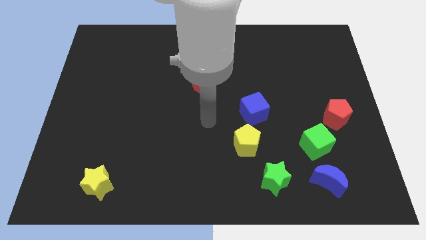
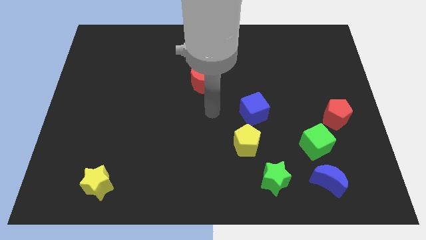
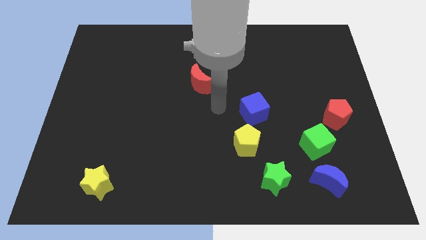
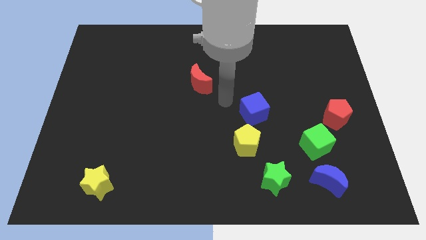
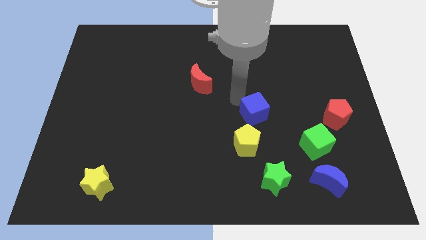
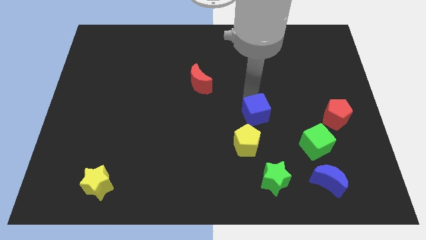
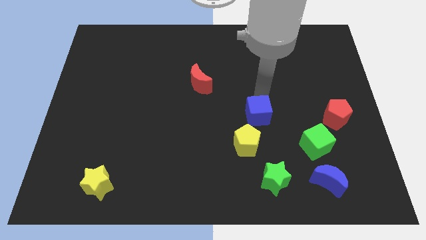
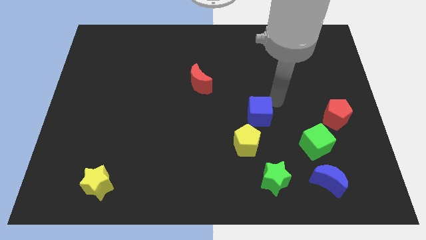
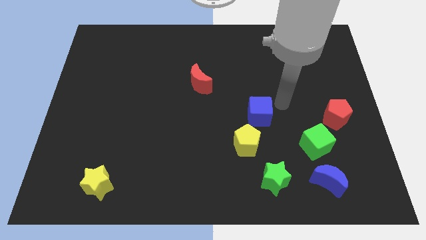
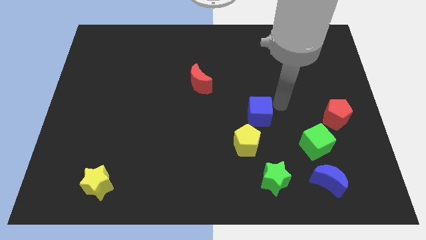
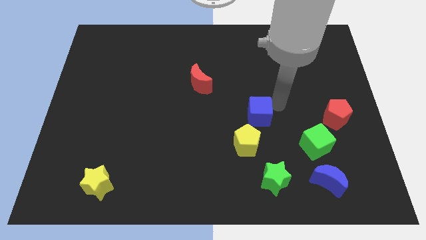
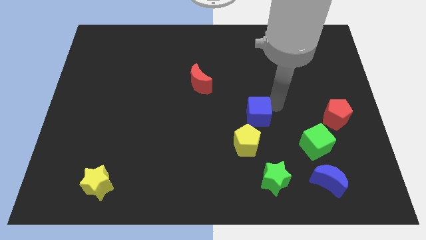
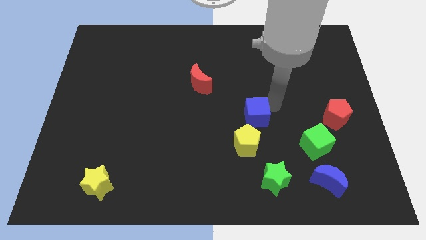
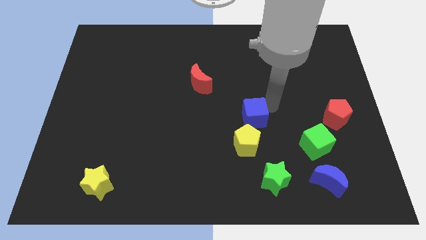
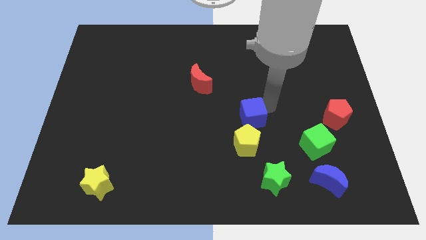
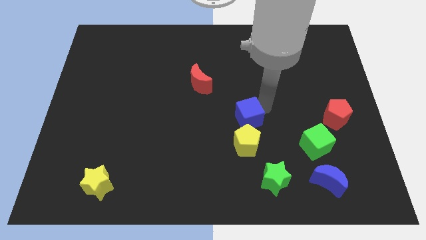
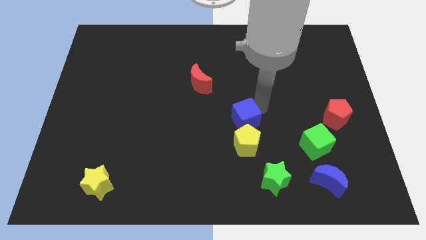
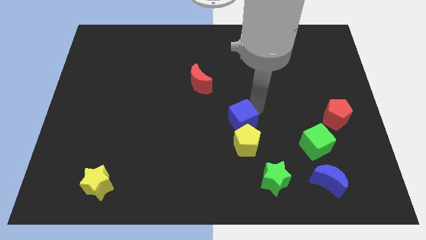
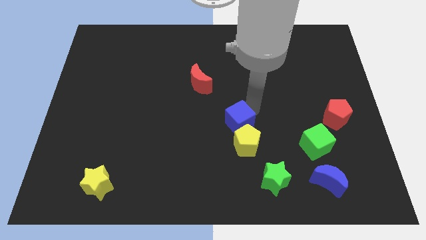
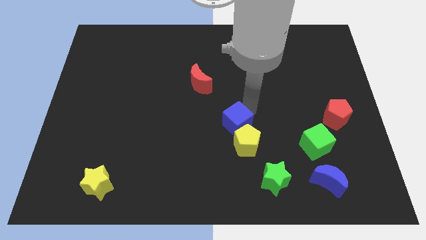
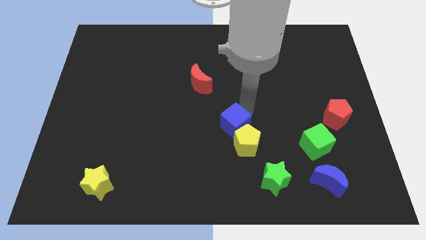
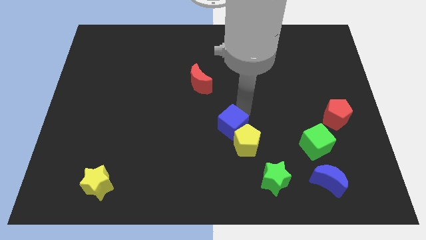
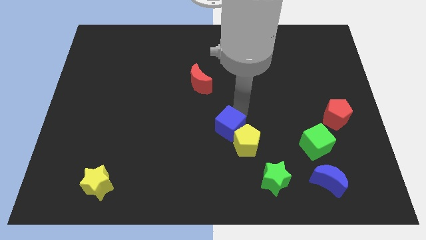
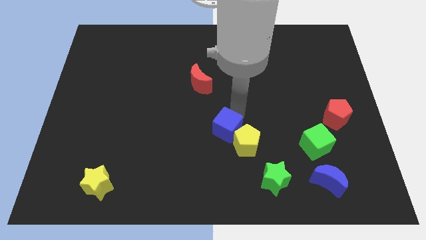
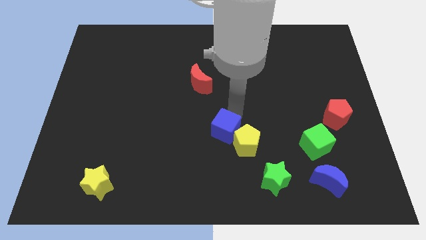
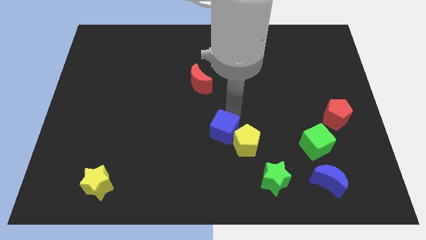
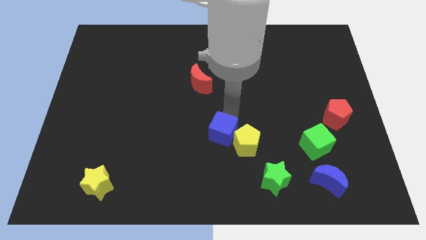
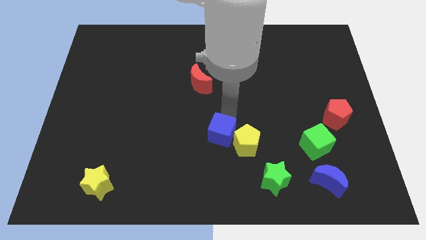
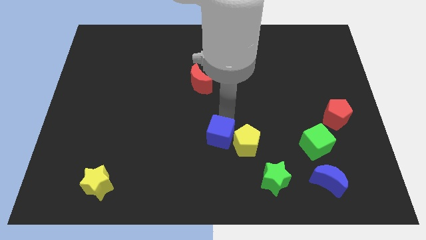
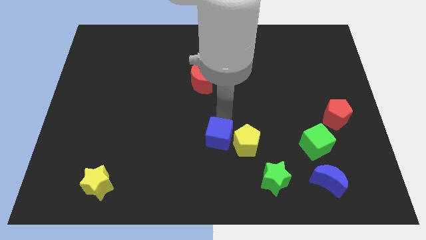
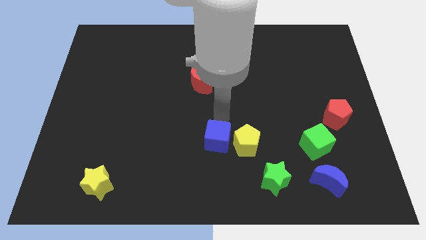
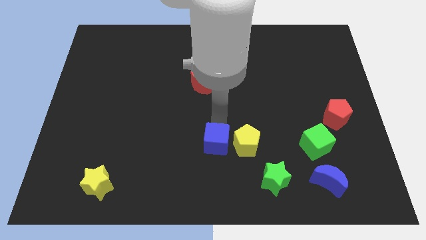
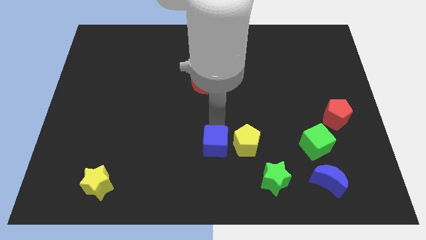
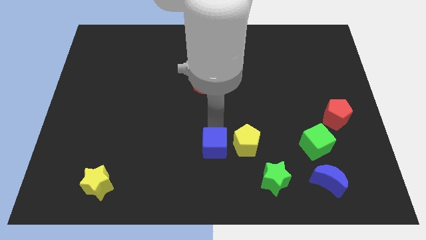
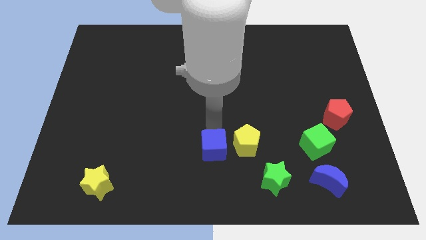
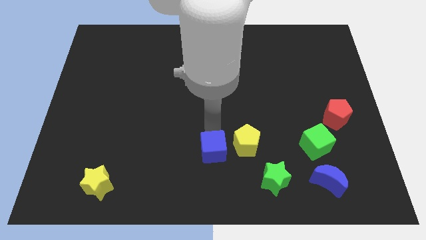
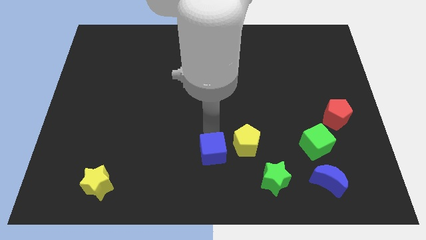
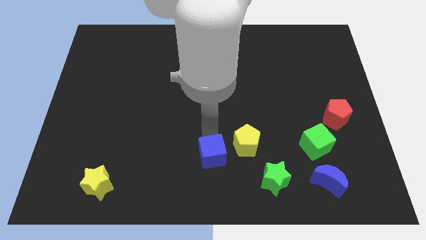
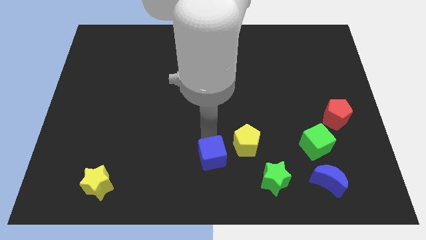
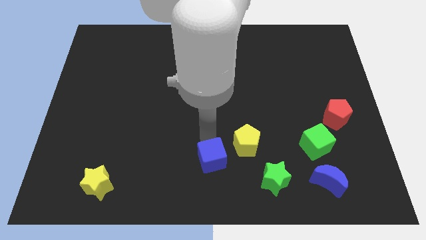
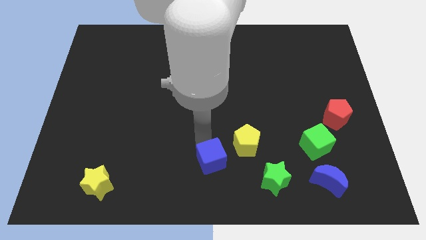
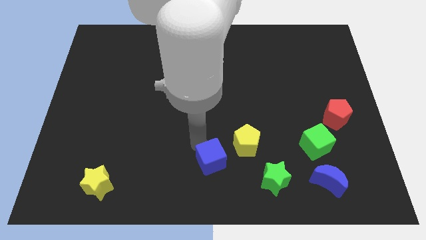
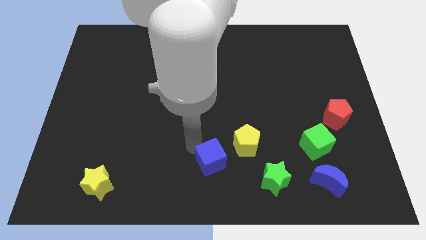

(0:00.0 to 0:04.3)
slide the blue cube left of the green star

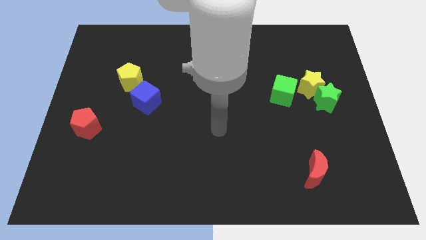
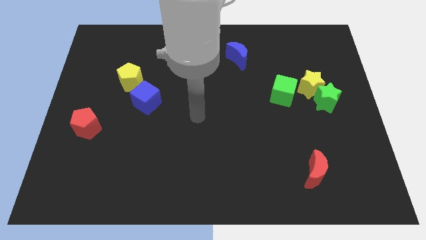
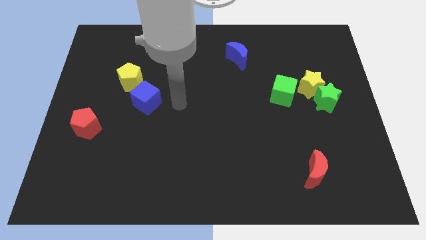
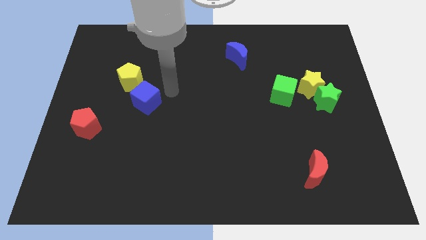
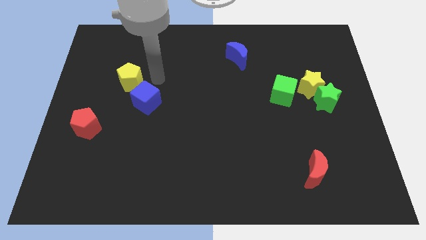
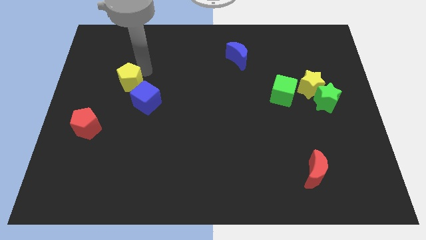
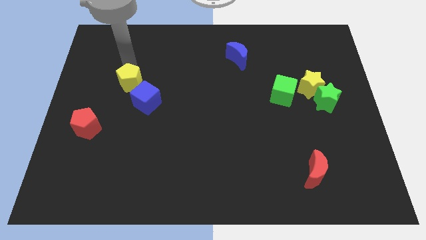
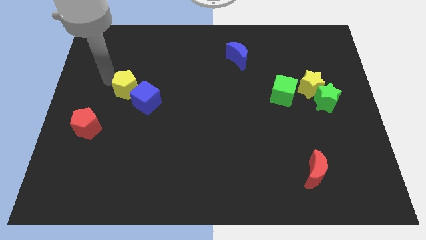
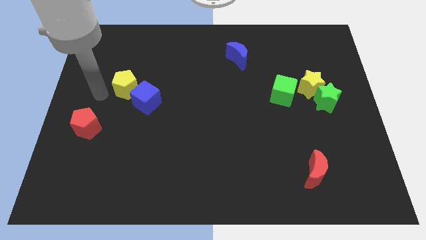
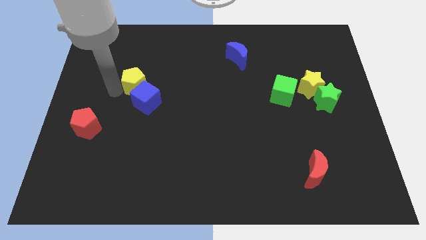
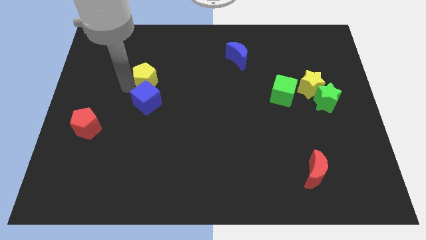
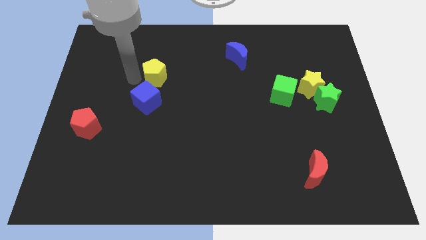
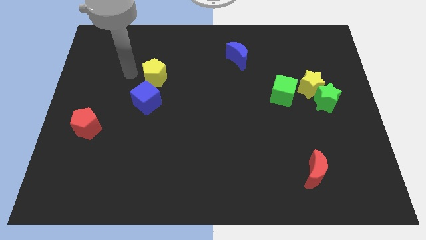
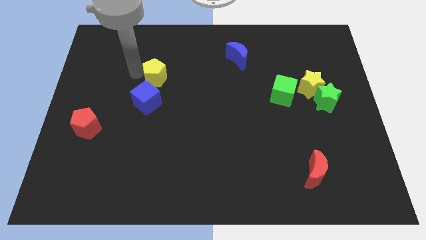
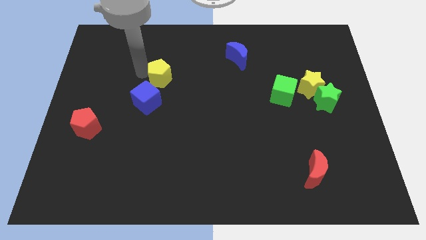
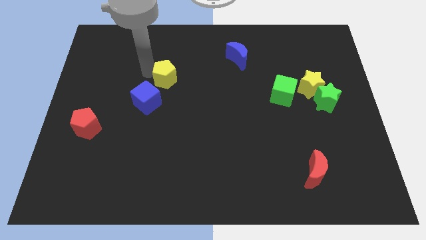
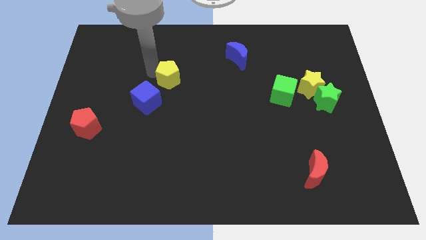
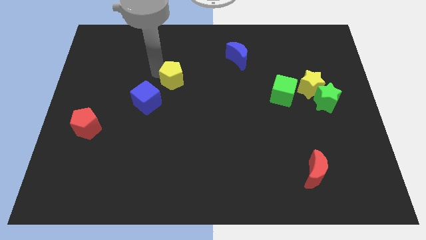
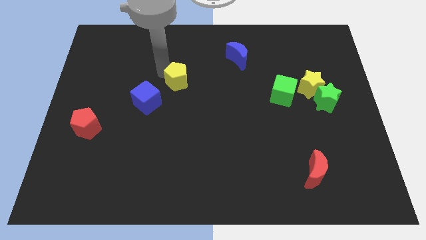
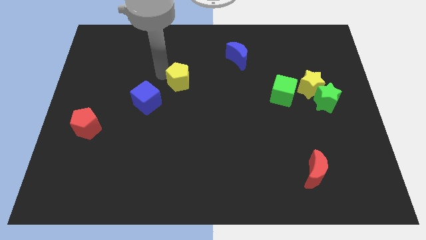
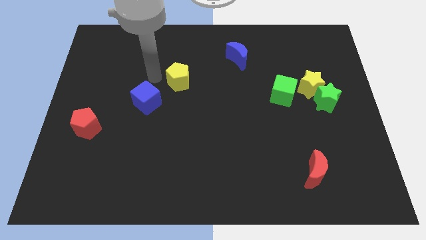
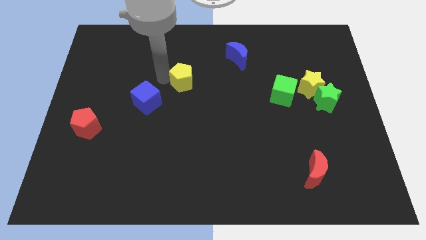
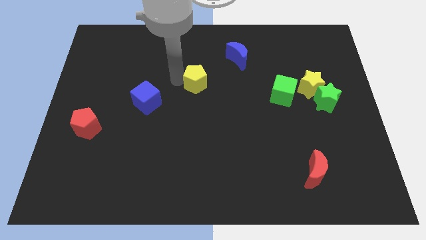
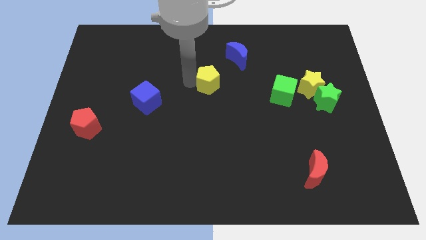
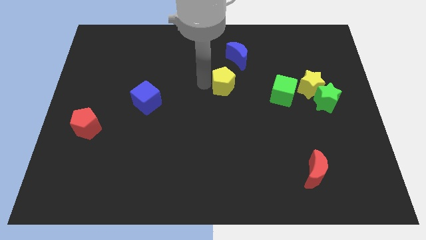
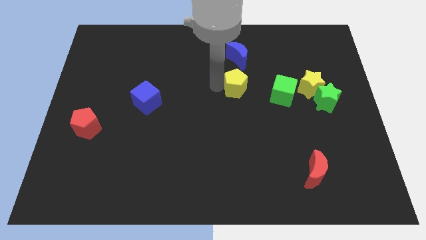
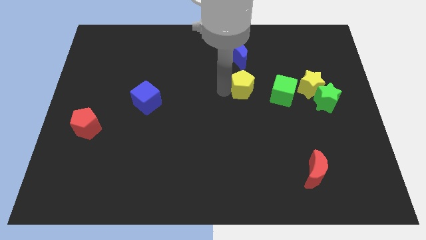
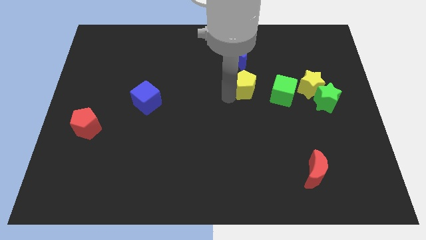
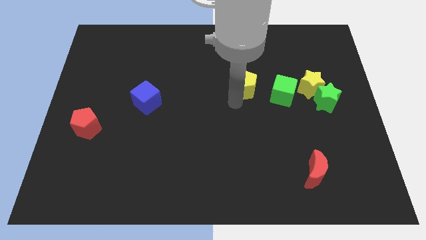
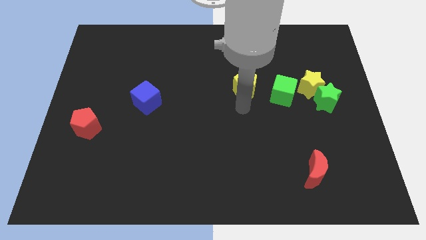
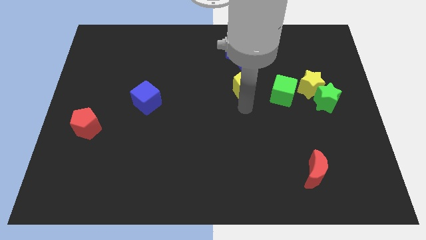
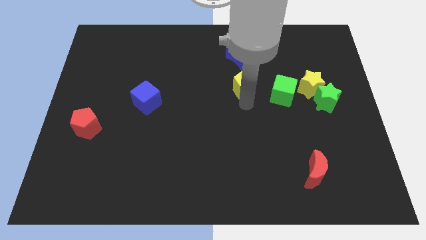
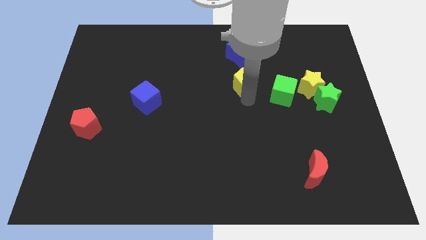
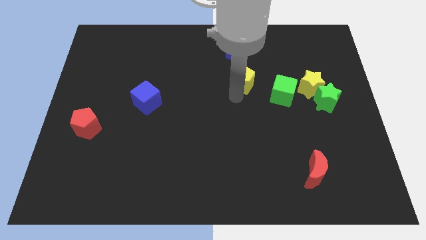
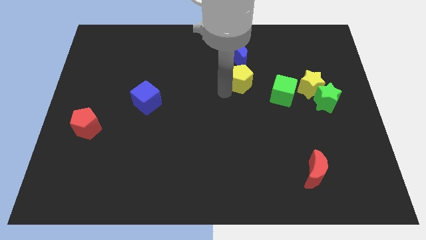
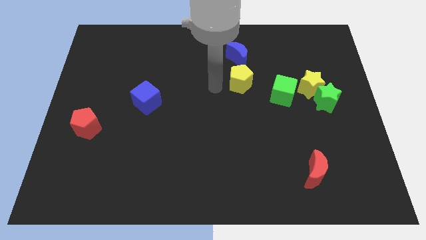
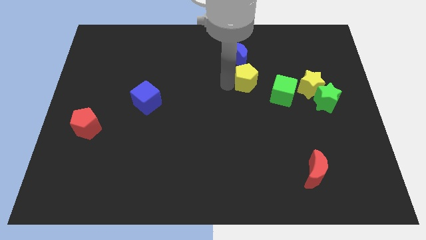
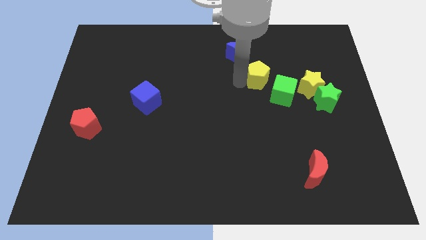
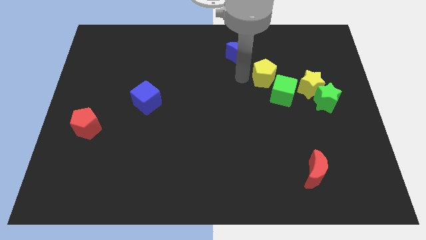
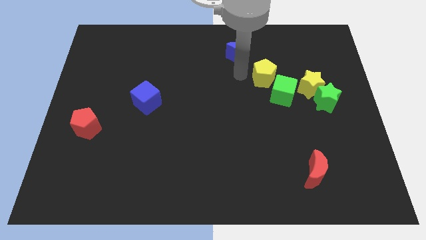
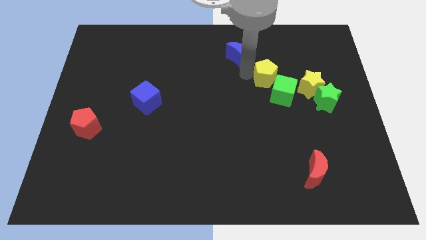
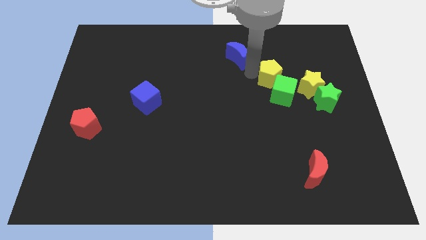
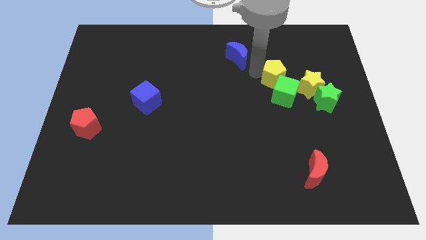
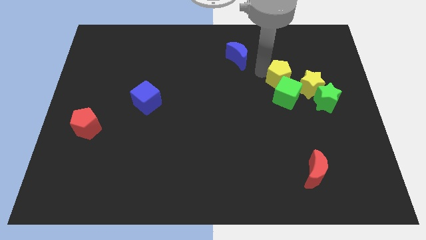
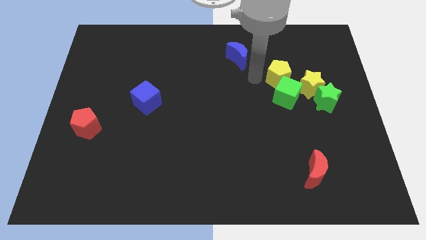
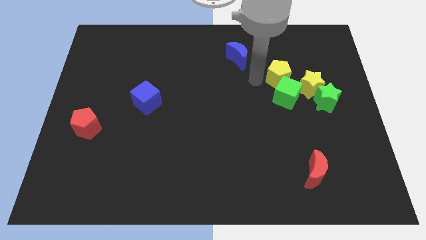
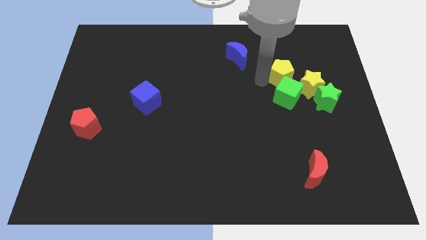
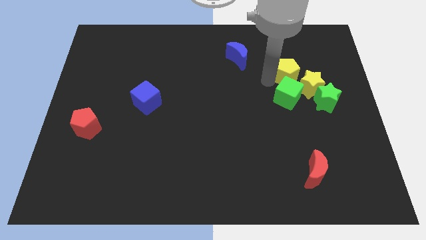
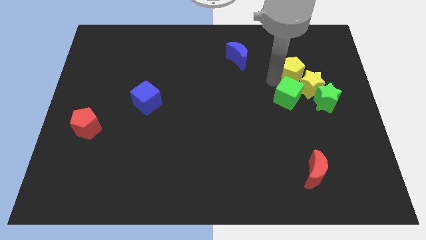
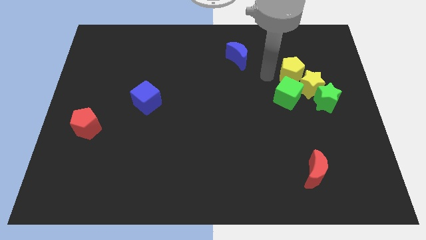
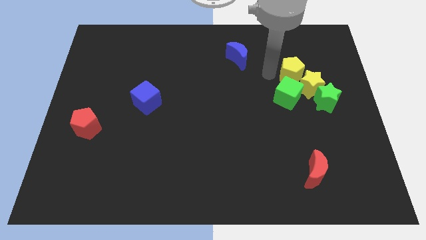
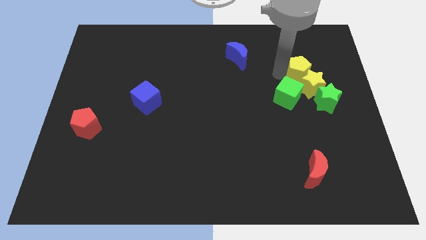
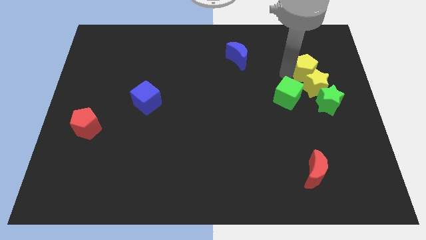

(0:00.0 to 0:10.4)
push the yellow pentagon to the top of the green star
